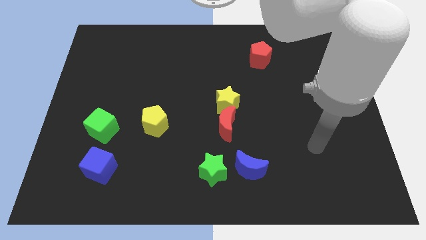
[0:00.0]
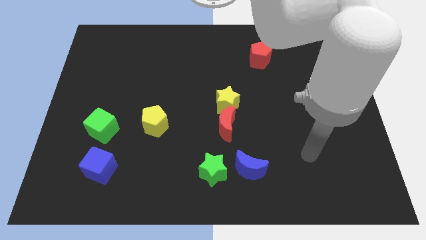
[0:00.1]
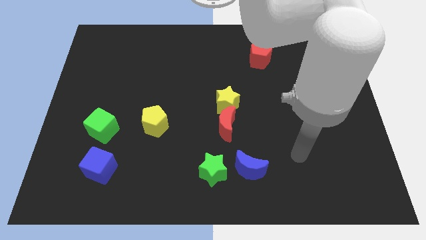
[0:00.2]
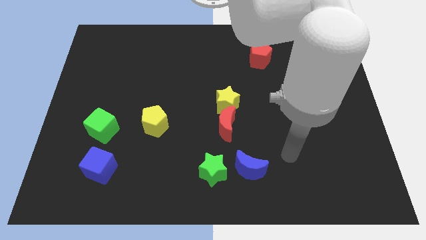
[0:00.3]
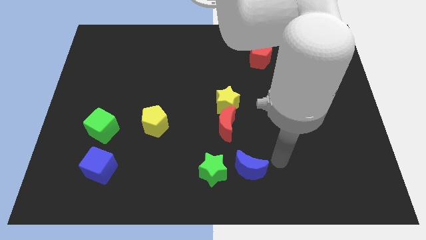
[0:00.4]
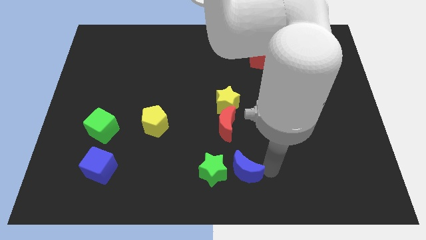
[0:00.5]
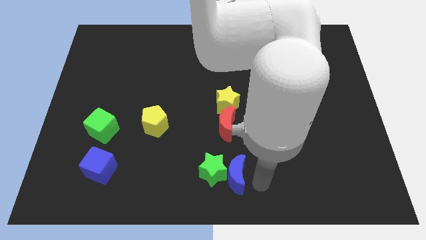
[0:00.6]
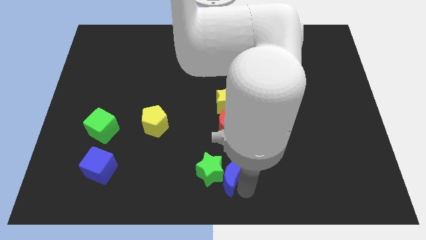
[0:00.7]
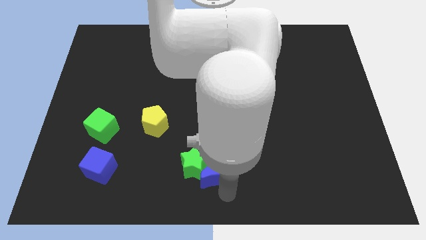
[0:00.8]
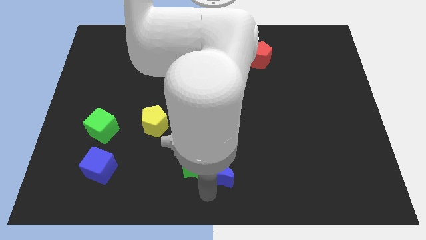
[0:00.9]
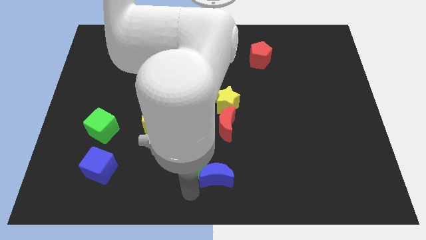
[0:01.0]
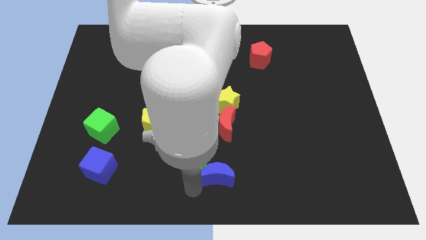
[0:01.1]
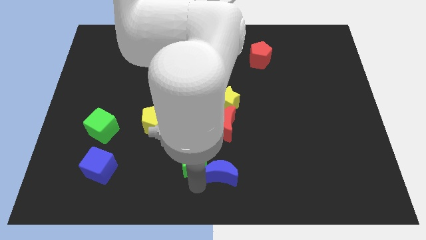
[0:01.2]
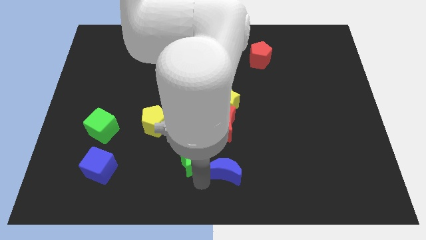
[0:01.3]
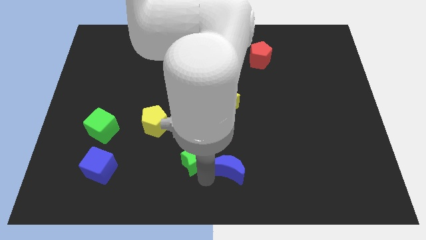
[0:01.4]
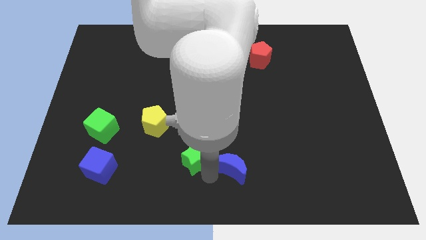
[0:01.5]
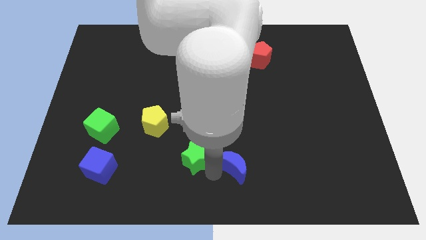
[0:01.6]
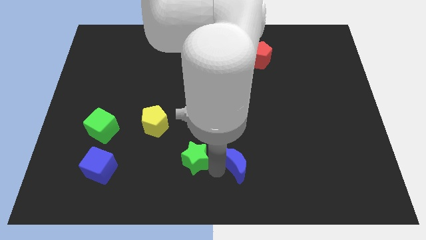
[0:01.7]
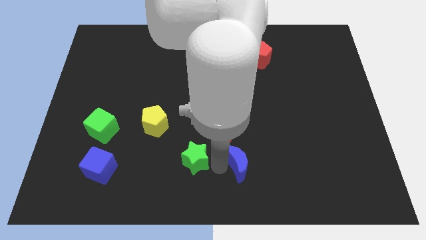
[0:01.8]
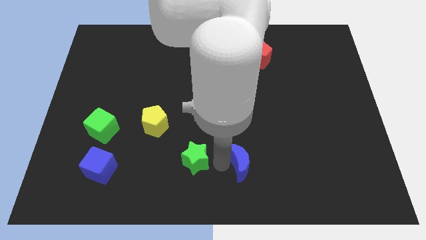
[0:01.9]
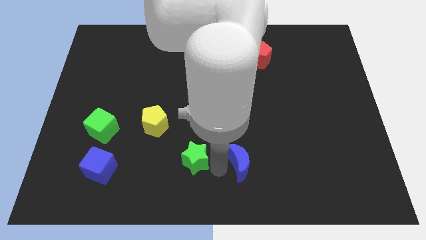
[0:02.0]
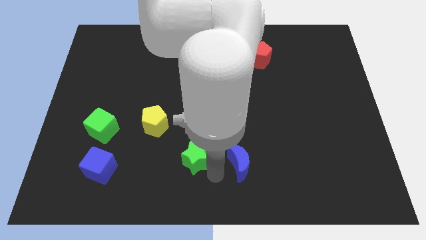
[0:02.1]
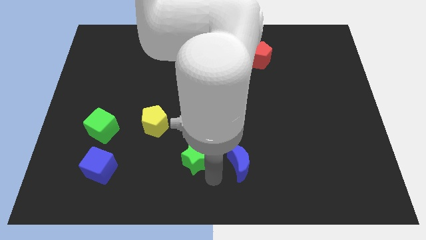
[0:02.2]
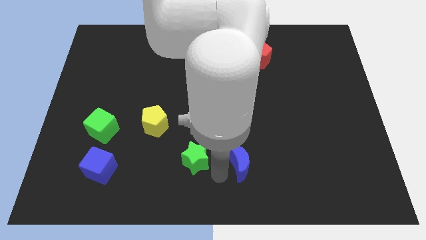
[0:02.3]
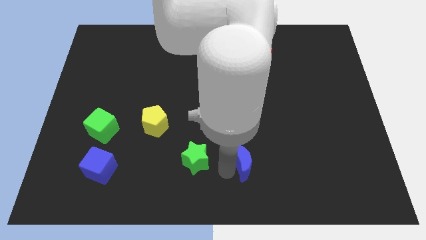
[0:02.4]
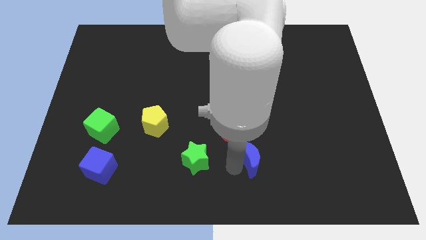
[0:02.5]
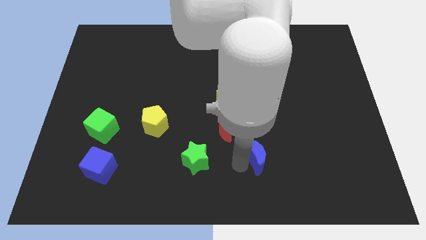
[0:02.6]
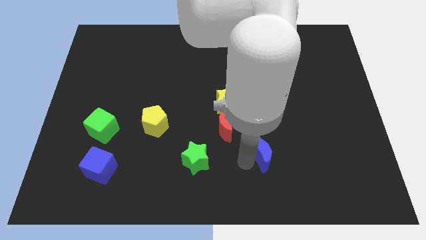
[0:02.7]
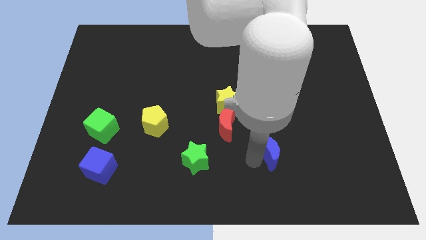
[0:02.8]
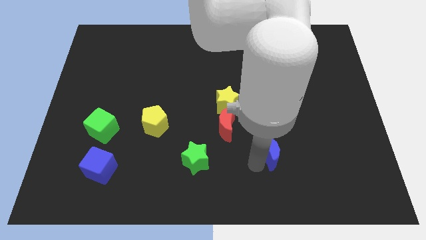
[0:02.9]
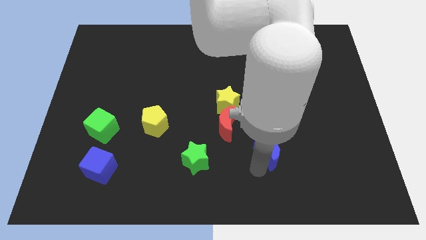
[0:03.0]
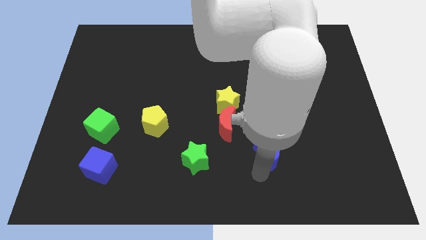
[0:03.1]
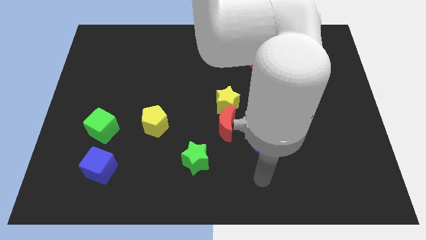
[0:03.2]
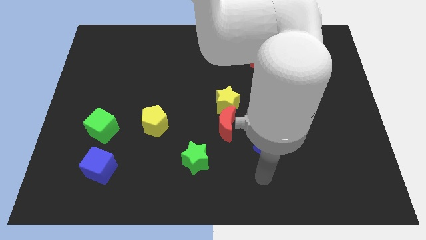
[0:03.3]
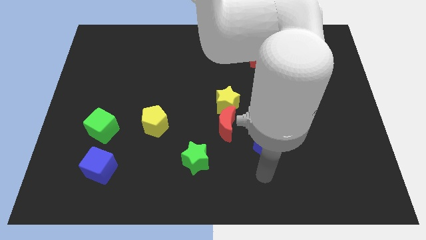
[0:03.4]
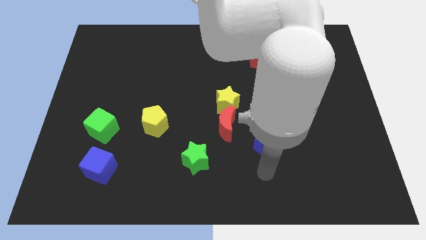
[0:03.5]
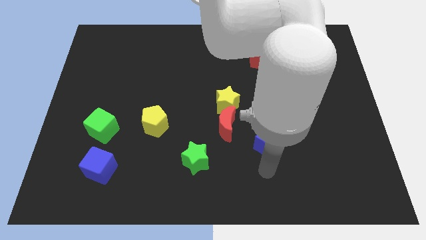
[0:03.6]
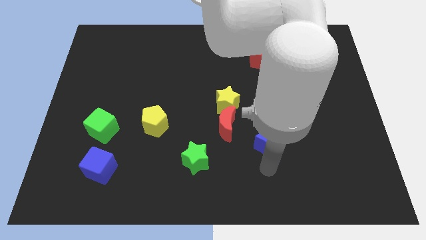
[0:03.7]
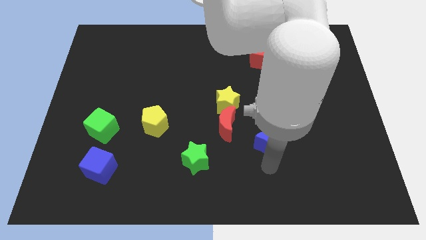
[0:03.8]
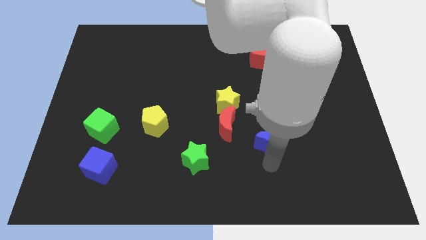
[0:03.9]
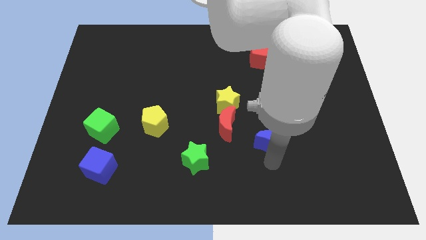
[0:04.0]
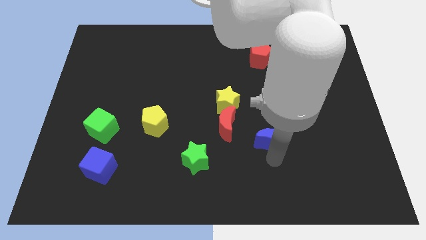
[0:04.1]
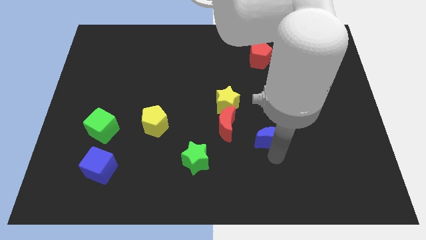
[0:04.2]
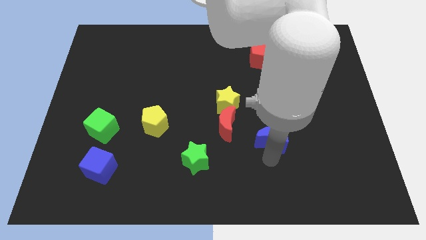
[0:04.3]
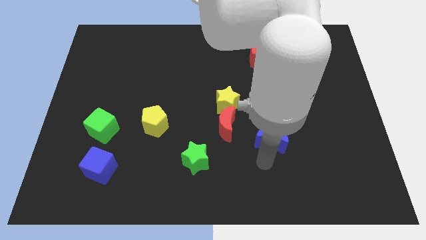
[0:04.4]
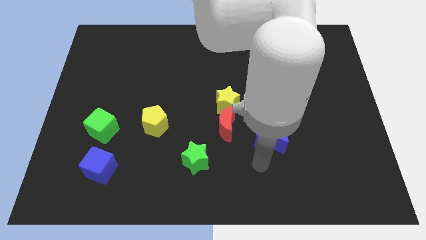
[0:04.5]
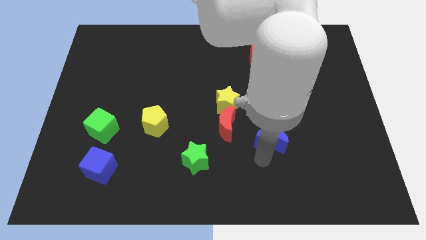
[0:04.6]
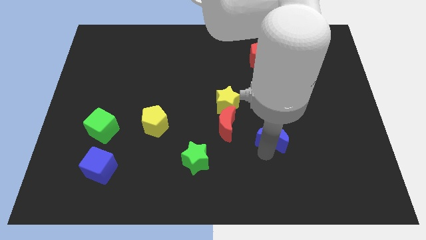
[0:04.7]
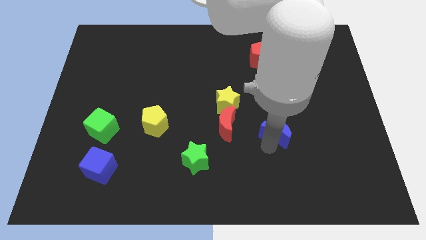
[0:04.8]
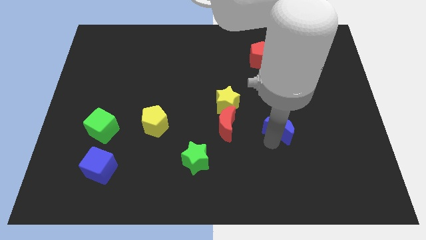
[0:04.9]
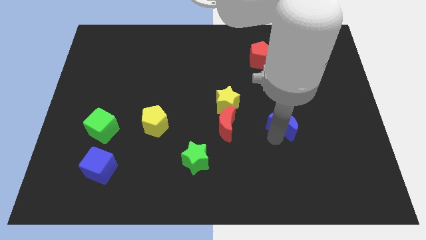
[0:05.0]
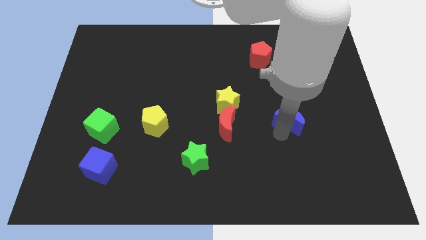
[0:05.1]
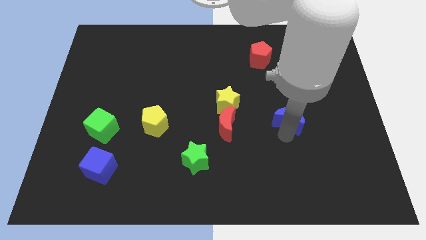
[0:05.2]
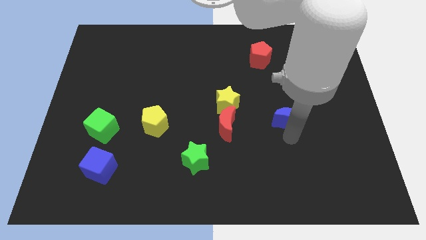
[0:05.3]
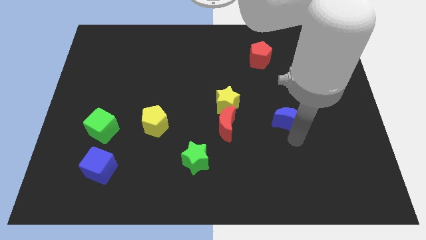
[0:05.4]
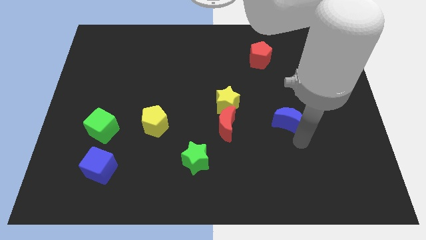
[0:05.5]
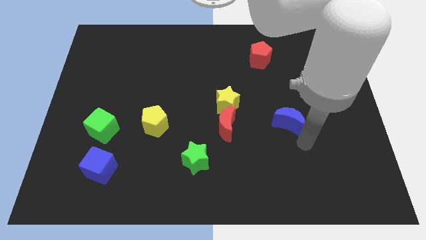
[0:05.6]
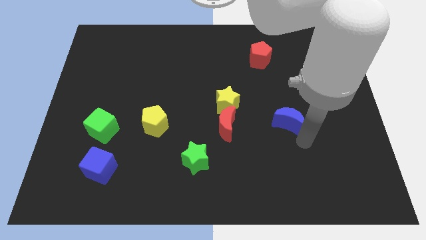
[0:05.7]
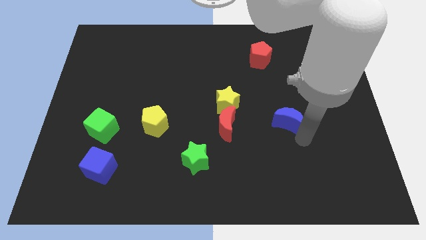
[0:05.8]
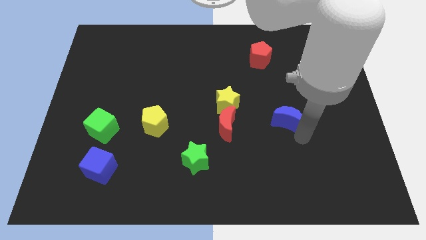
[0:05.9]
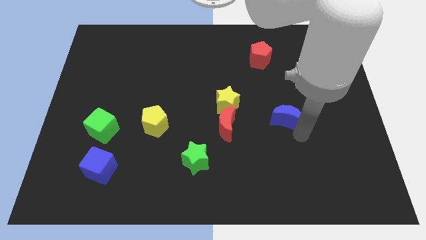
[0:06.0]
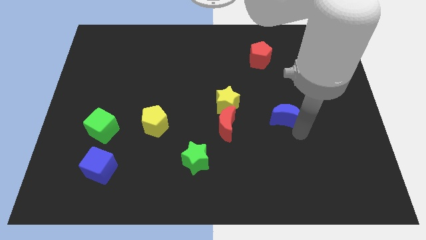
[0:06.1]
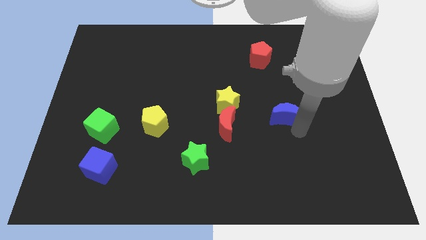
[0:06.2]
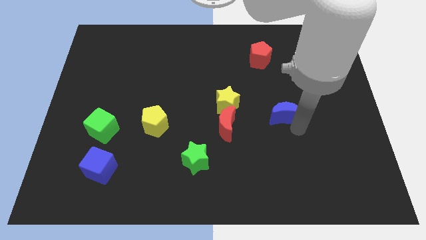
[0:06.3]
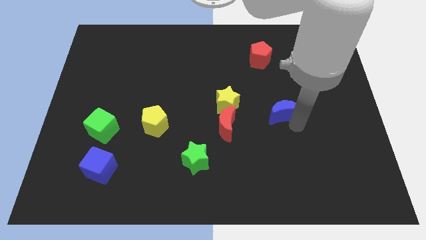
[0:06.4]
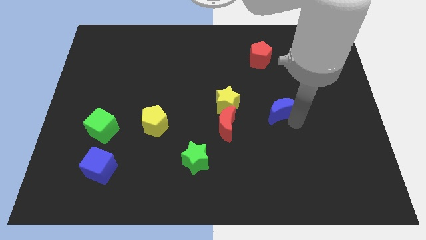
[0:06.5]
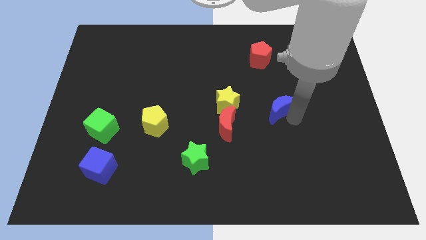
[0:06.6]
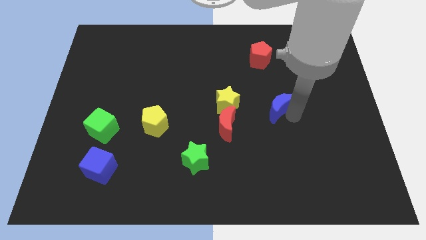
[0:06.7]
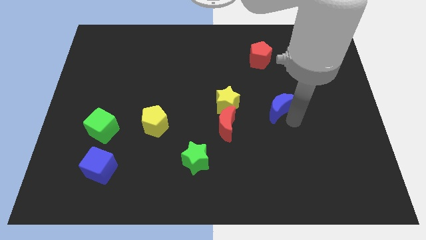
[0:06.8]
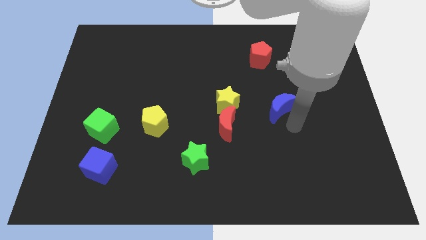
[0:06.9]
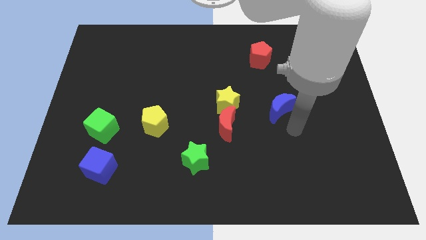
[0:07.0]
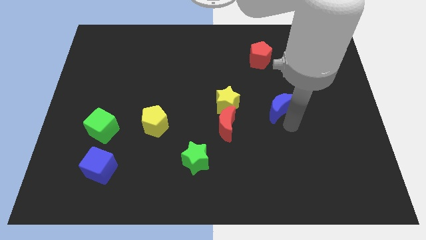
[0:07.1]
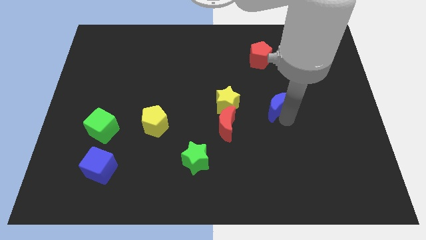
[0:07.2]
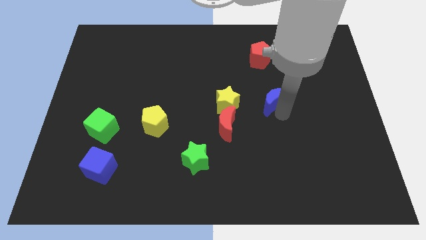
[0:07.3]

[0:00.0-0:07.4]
slide the blue moon below the red pentagon
